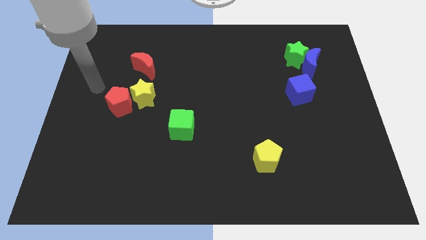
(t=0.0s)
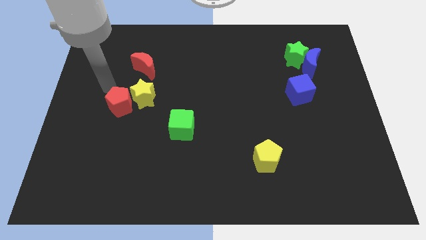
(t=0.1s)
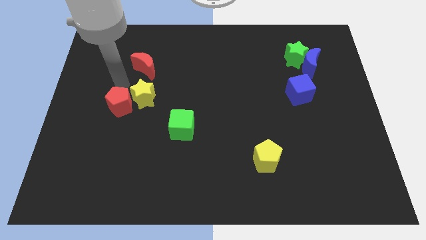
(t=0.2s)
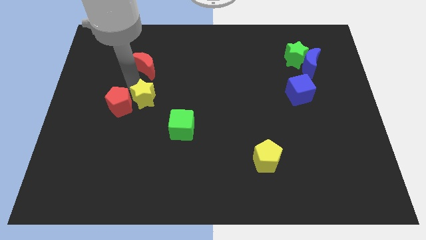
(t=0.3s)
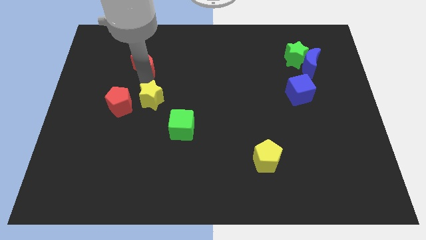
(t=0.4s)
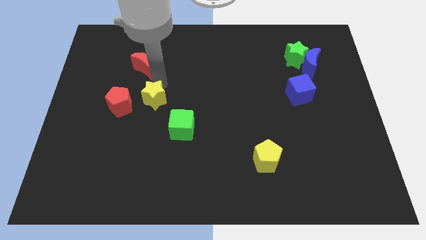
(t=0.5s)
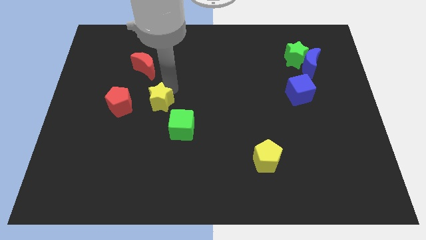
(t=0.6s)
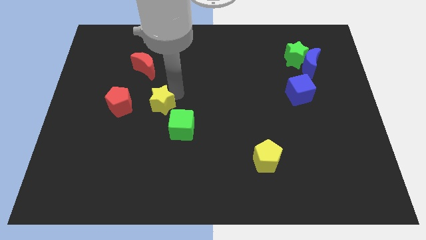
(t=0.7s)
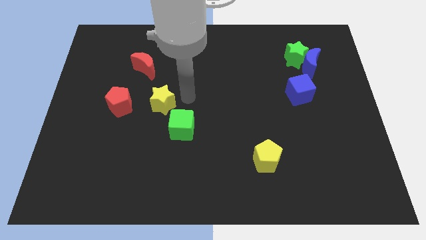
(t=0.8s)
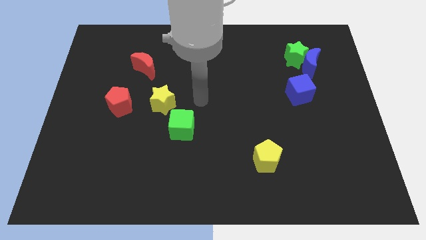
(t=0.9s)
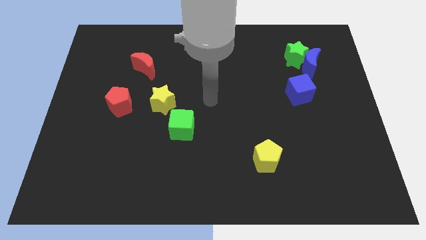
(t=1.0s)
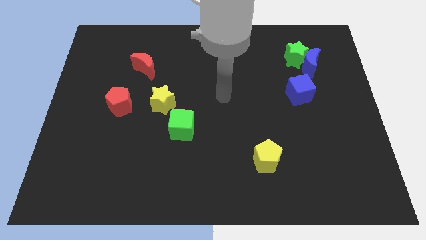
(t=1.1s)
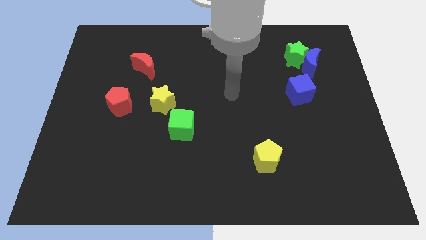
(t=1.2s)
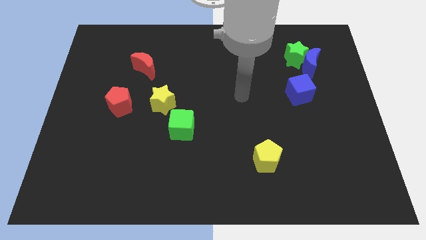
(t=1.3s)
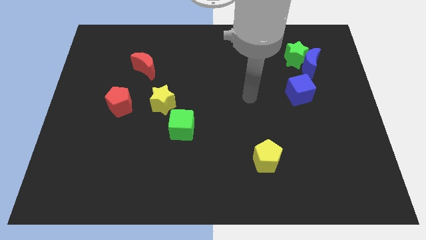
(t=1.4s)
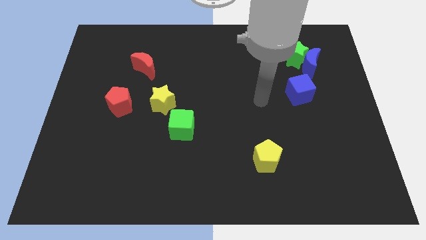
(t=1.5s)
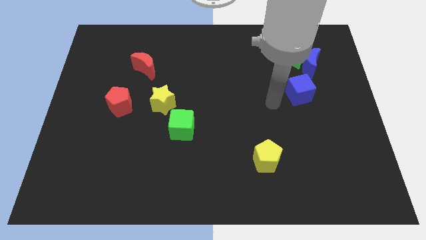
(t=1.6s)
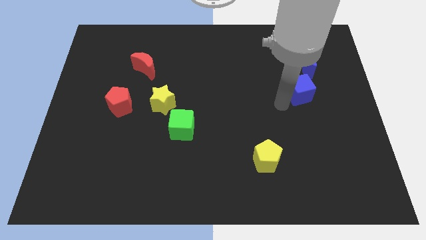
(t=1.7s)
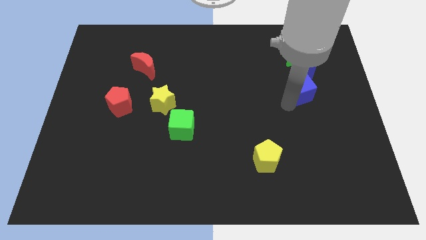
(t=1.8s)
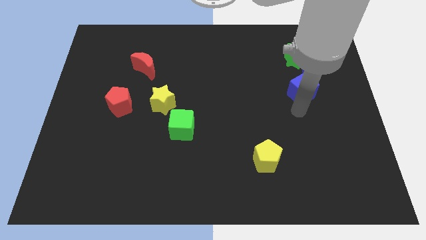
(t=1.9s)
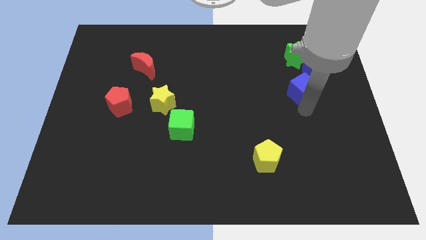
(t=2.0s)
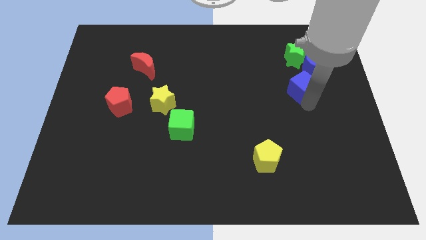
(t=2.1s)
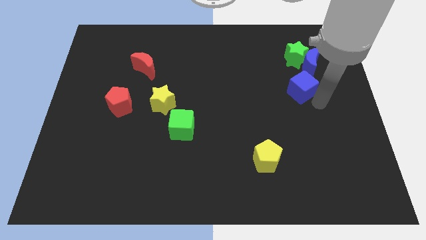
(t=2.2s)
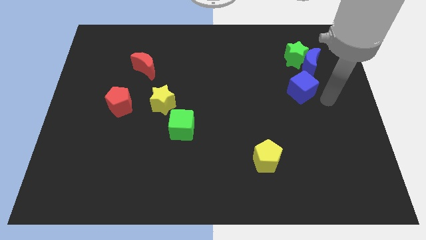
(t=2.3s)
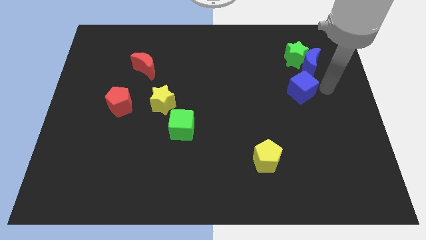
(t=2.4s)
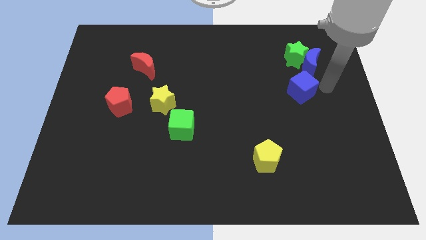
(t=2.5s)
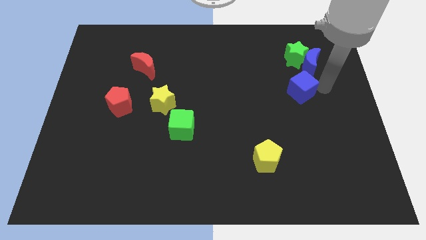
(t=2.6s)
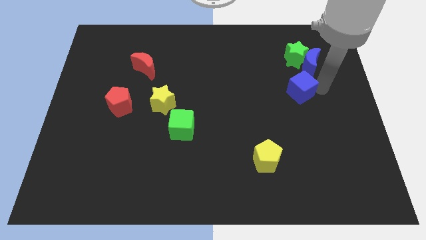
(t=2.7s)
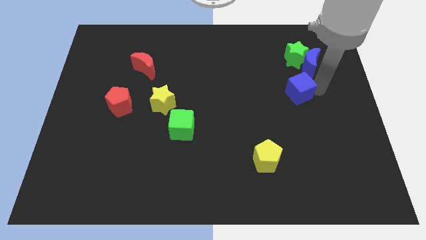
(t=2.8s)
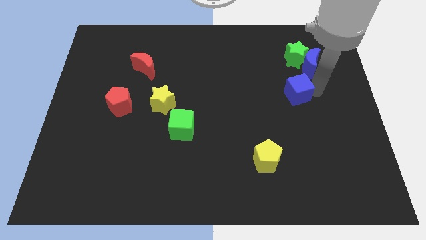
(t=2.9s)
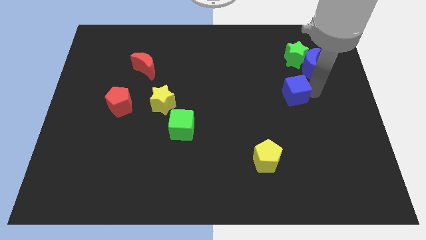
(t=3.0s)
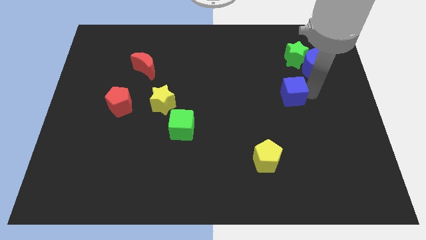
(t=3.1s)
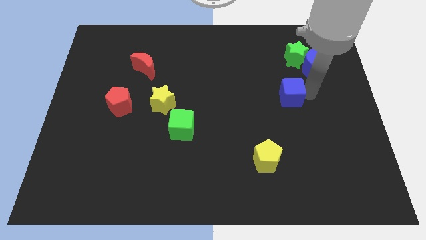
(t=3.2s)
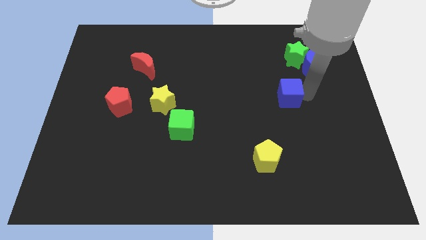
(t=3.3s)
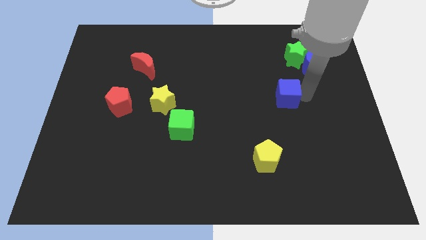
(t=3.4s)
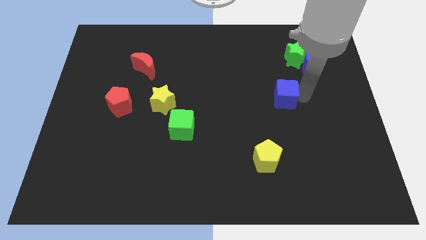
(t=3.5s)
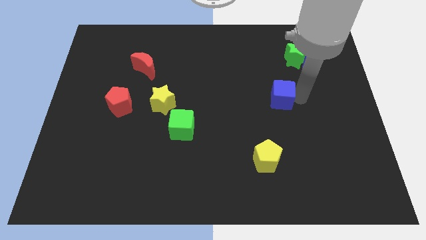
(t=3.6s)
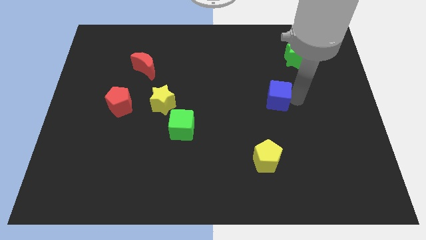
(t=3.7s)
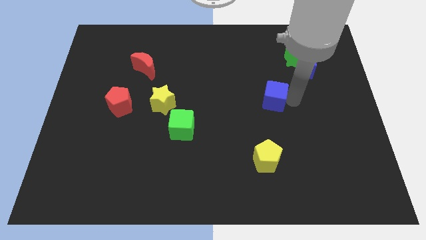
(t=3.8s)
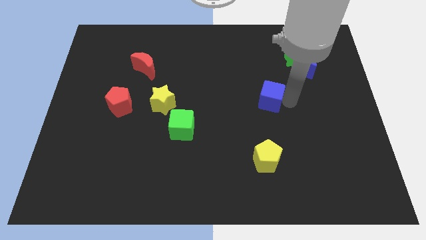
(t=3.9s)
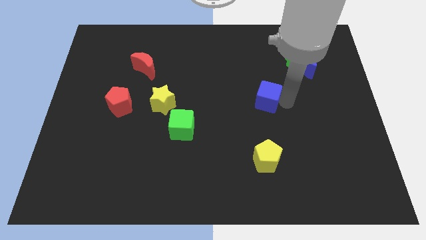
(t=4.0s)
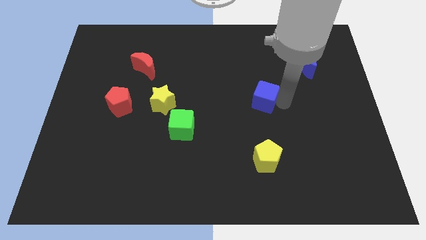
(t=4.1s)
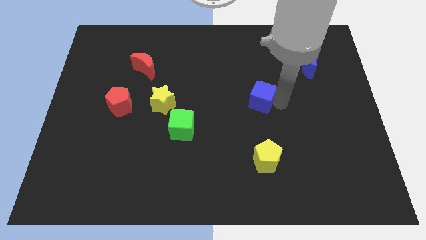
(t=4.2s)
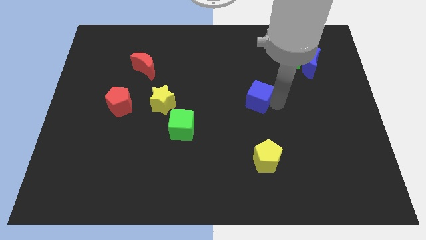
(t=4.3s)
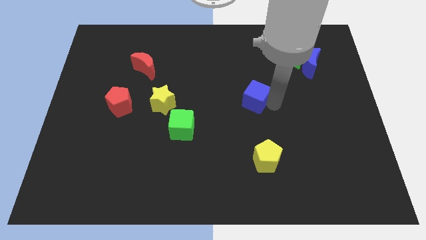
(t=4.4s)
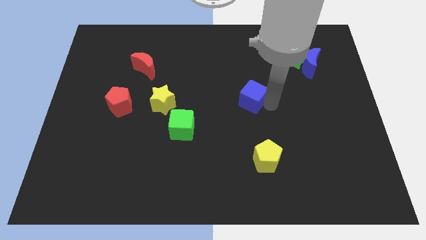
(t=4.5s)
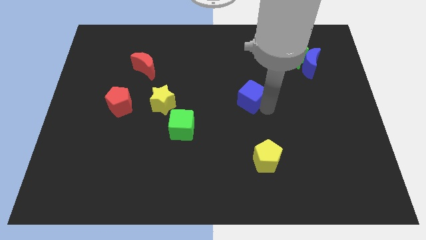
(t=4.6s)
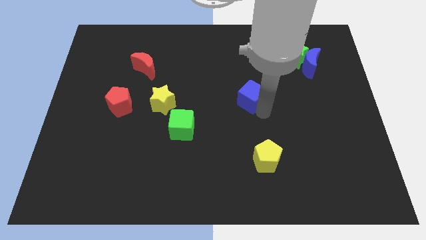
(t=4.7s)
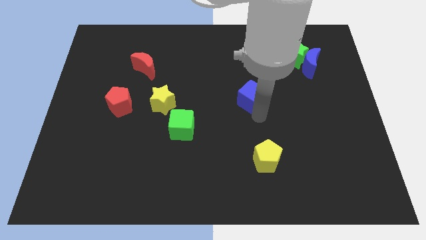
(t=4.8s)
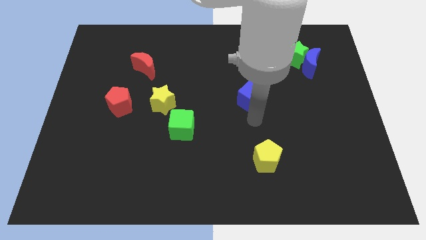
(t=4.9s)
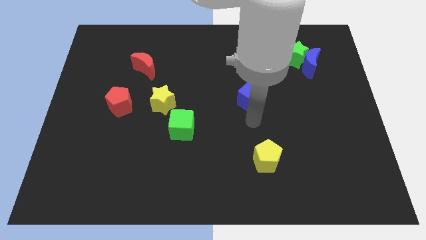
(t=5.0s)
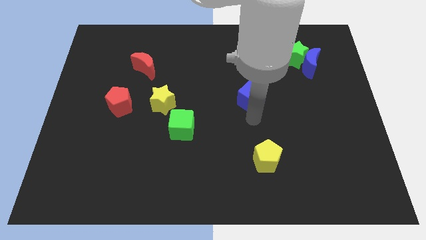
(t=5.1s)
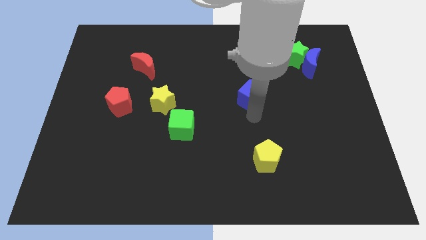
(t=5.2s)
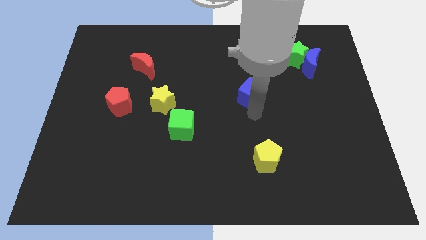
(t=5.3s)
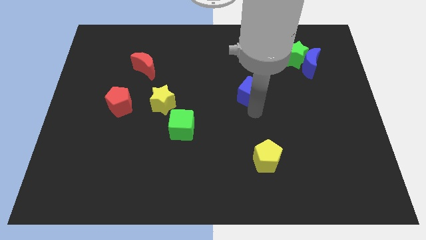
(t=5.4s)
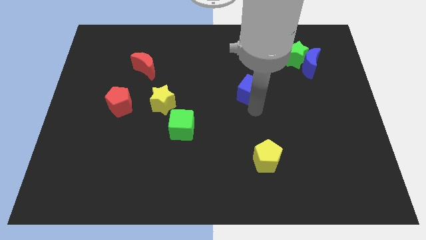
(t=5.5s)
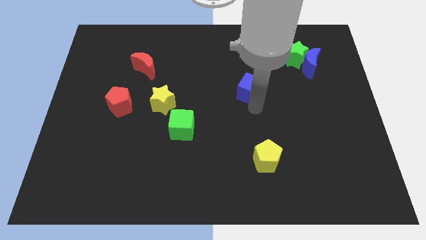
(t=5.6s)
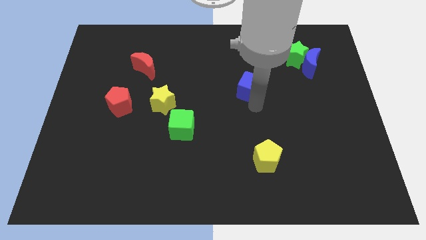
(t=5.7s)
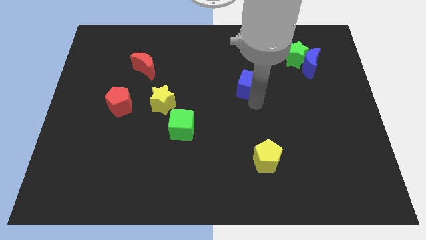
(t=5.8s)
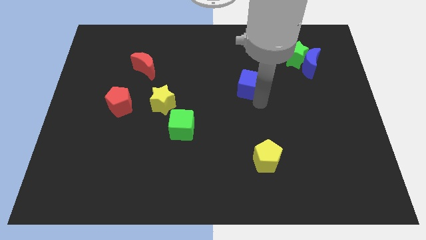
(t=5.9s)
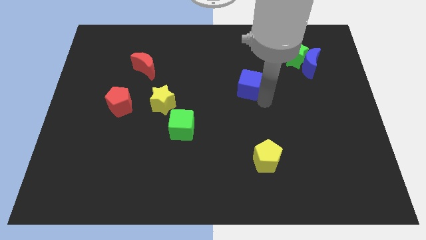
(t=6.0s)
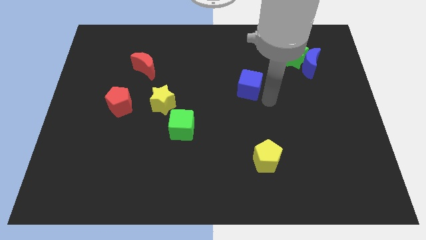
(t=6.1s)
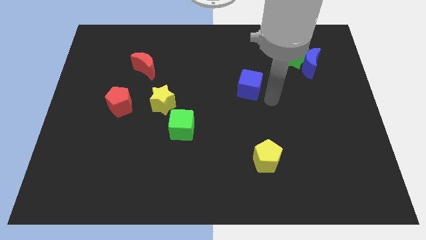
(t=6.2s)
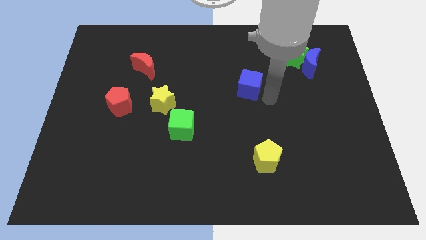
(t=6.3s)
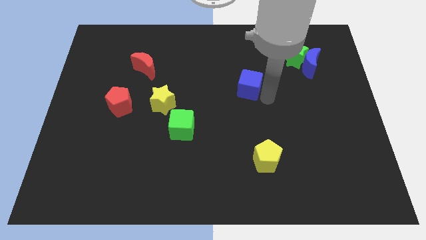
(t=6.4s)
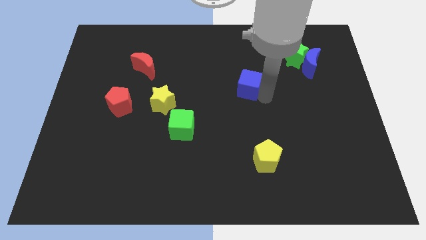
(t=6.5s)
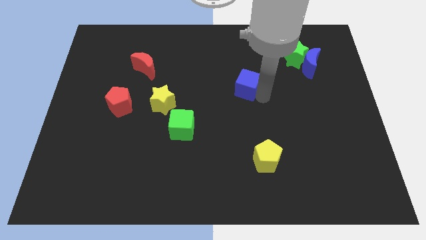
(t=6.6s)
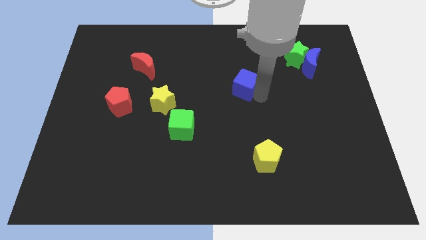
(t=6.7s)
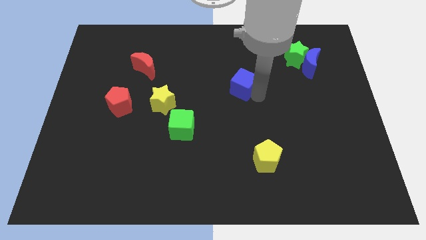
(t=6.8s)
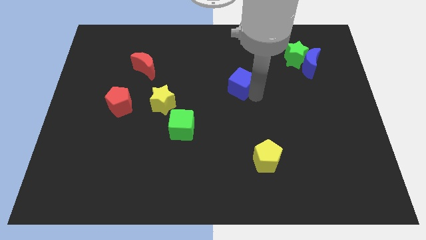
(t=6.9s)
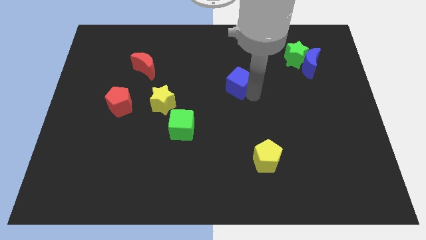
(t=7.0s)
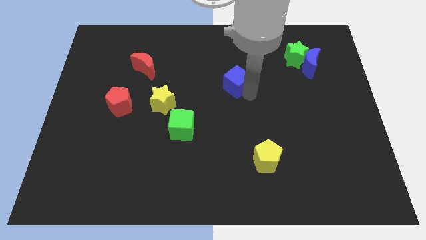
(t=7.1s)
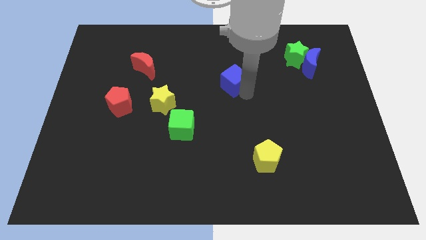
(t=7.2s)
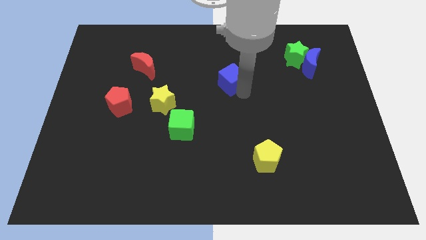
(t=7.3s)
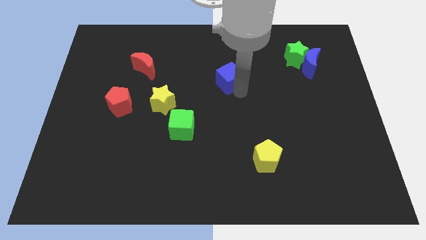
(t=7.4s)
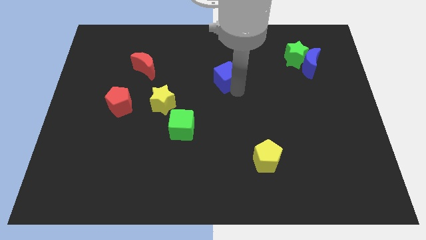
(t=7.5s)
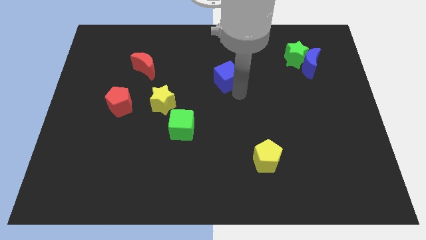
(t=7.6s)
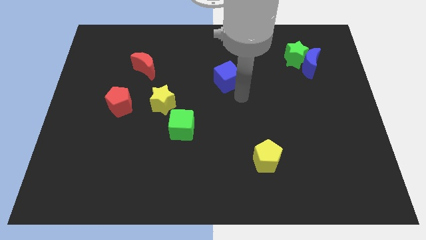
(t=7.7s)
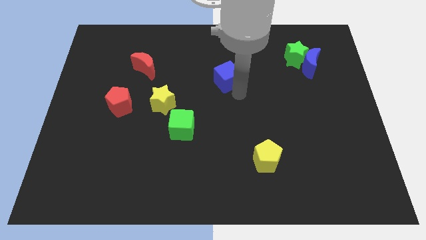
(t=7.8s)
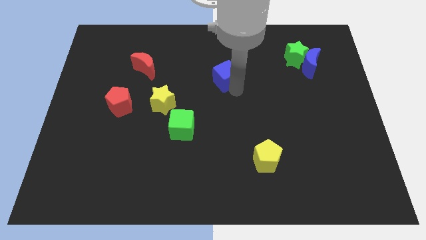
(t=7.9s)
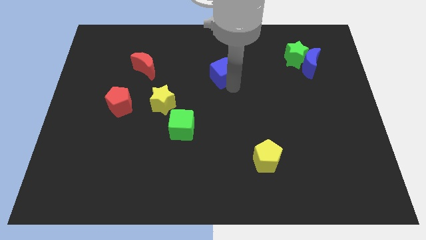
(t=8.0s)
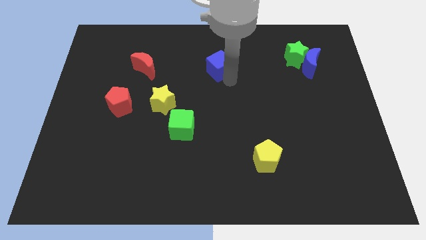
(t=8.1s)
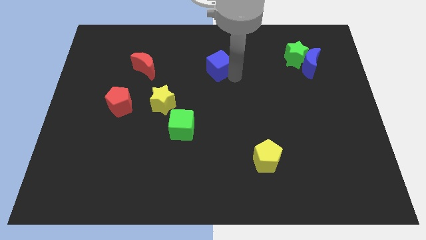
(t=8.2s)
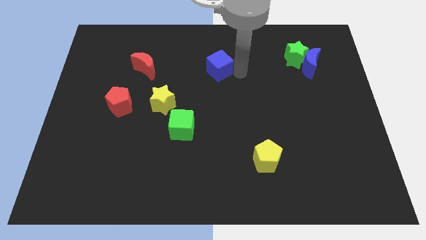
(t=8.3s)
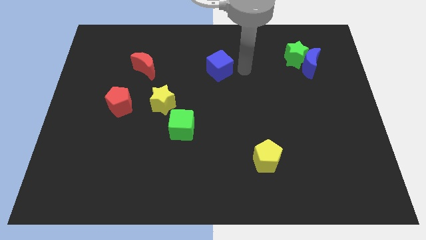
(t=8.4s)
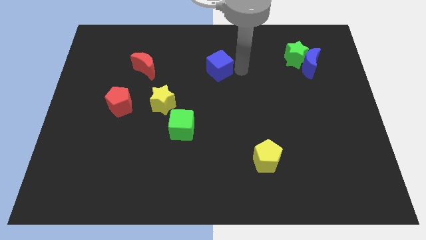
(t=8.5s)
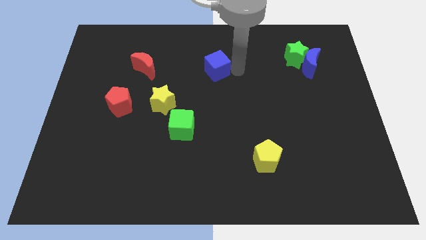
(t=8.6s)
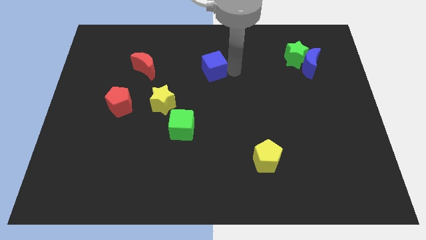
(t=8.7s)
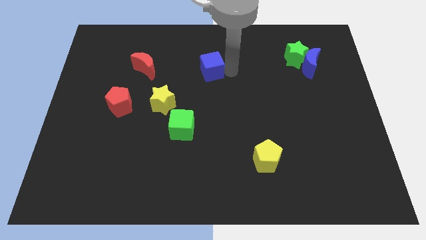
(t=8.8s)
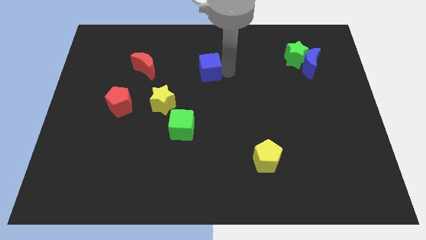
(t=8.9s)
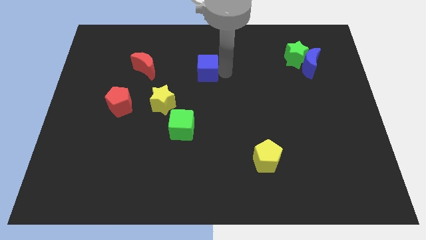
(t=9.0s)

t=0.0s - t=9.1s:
put the blue cube just right of the red moon
